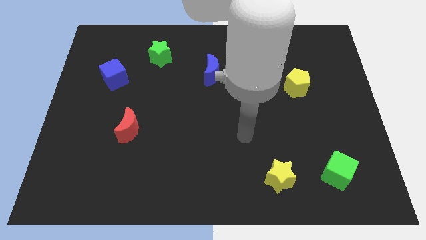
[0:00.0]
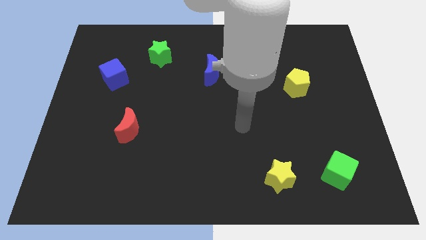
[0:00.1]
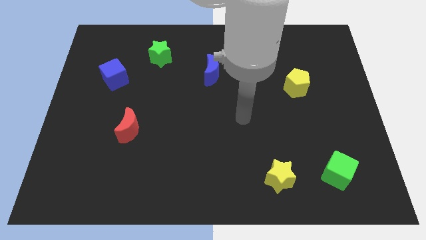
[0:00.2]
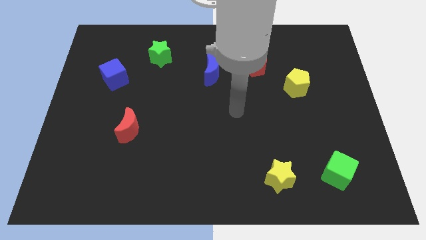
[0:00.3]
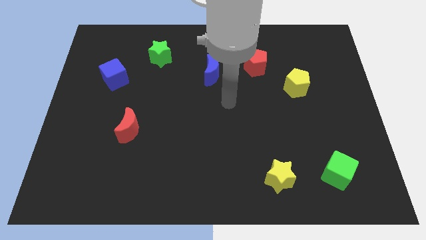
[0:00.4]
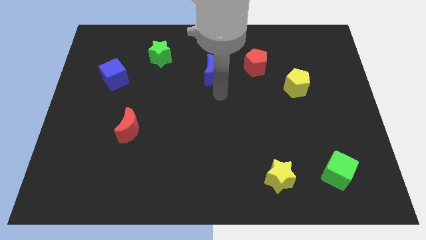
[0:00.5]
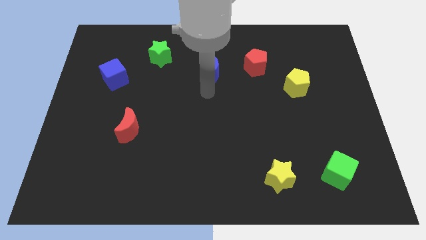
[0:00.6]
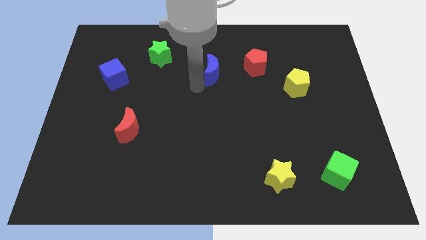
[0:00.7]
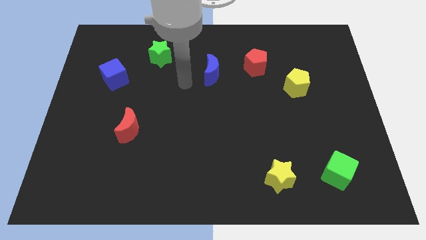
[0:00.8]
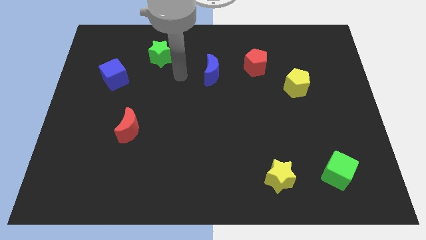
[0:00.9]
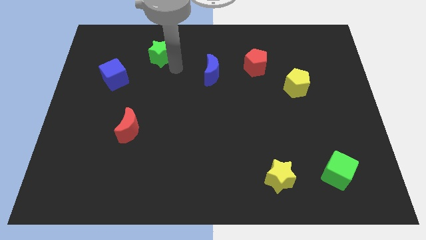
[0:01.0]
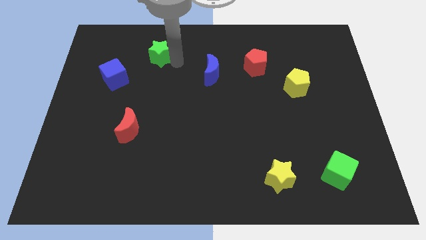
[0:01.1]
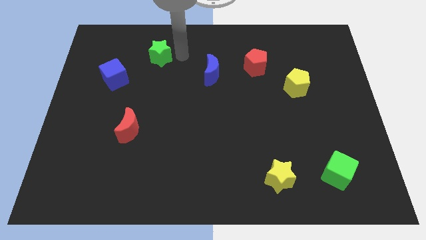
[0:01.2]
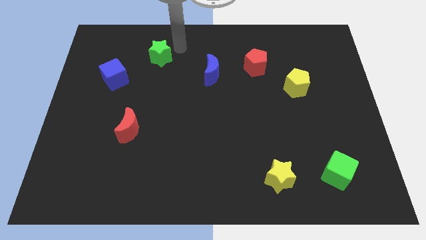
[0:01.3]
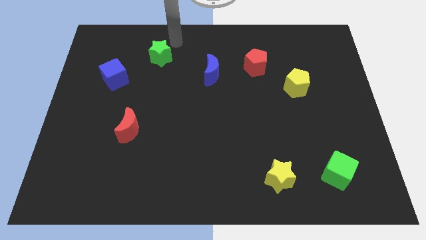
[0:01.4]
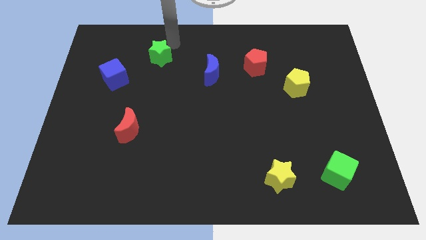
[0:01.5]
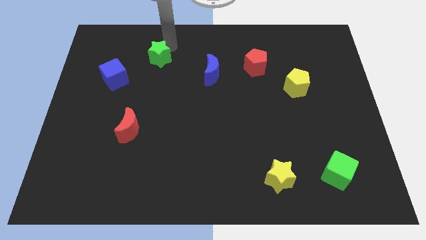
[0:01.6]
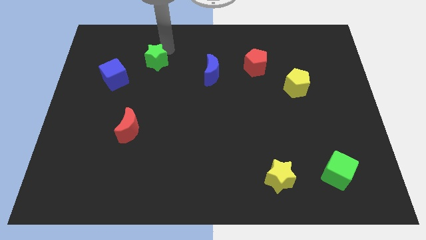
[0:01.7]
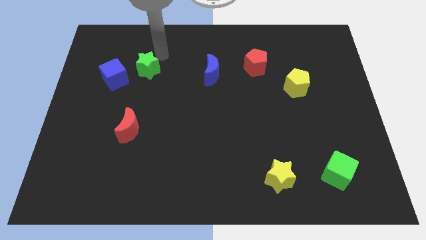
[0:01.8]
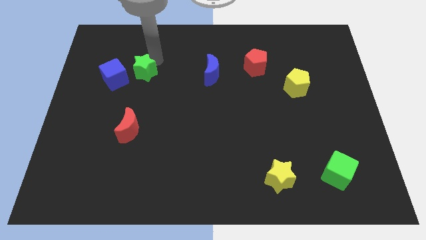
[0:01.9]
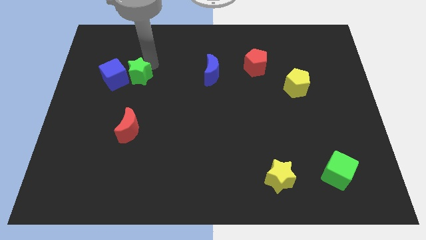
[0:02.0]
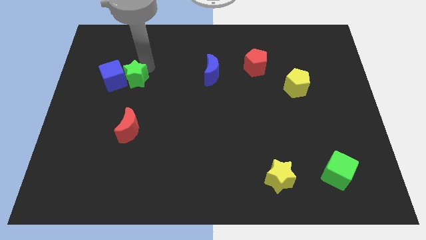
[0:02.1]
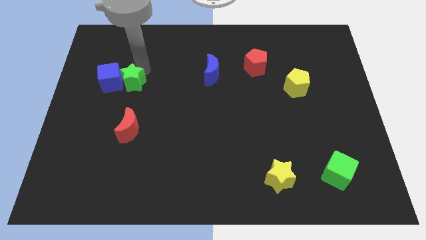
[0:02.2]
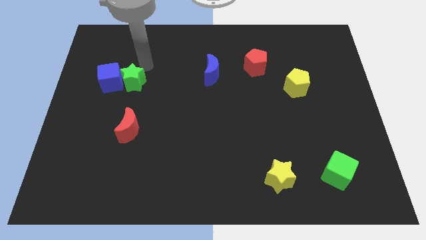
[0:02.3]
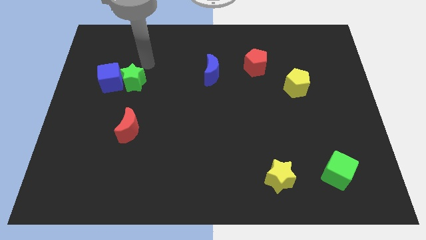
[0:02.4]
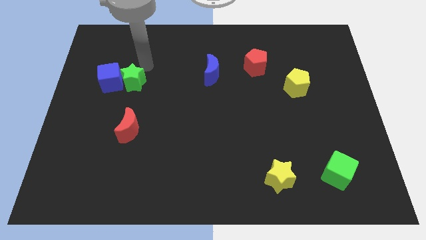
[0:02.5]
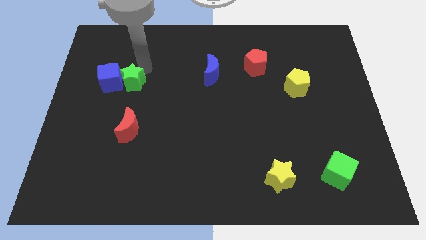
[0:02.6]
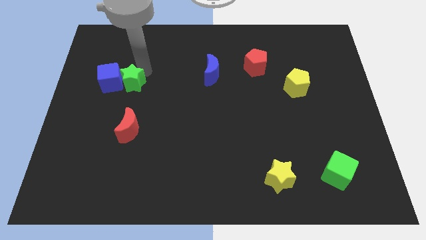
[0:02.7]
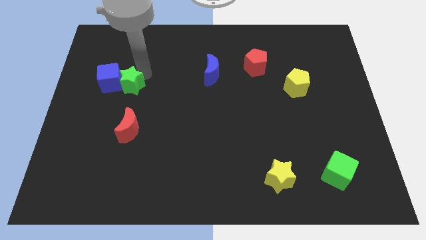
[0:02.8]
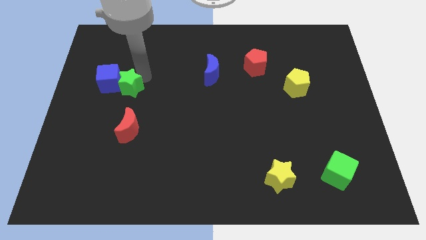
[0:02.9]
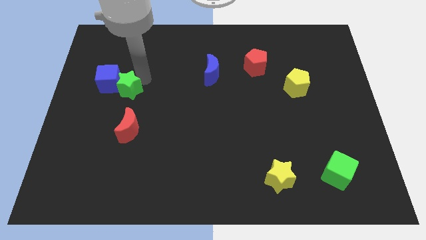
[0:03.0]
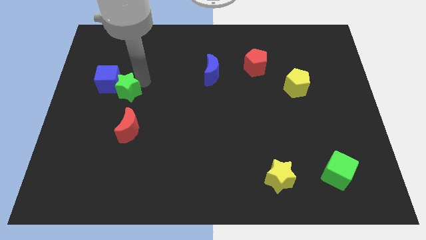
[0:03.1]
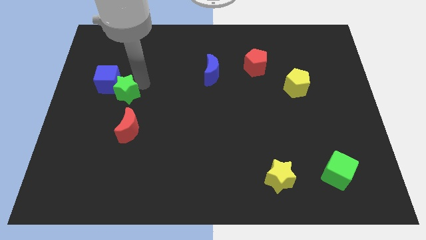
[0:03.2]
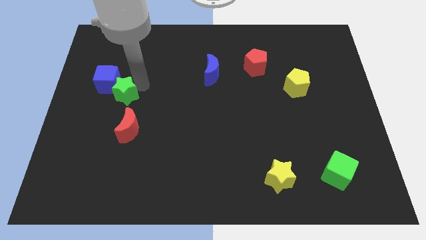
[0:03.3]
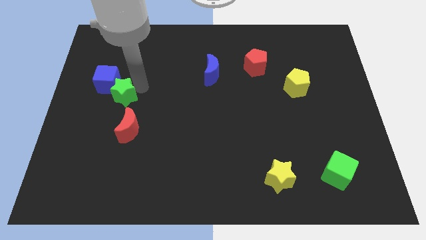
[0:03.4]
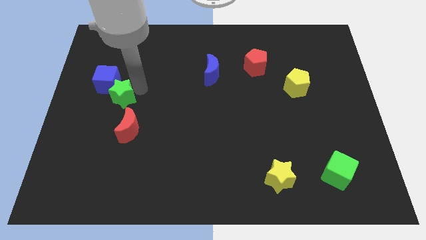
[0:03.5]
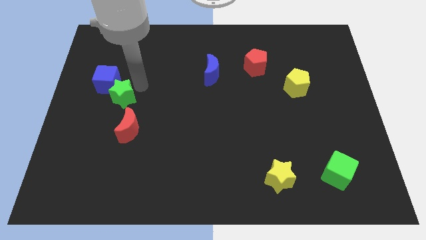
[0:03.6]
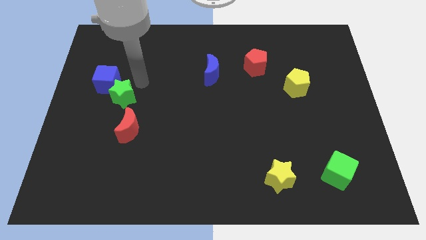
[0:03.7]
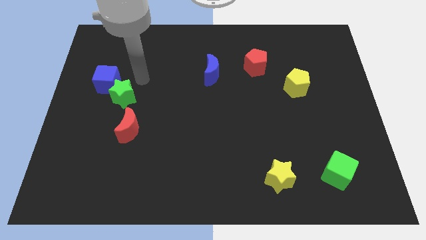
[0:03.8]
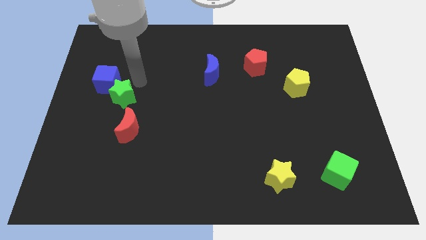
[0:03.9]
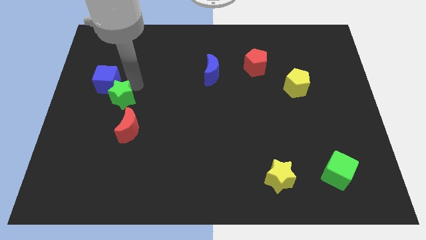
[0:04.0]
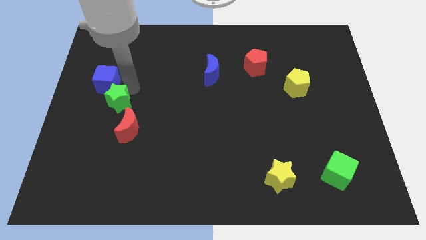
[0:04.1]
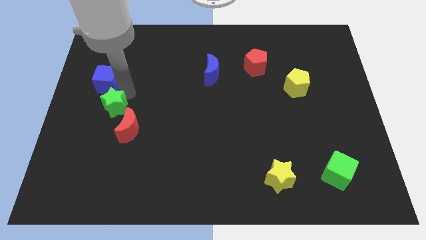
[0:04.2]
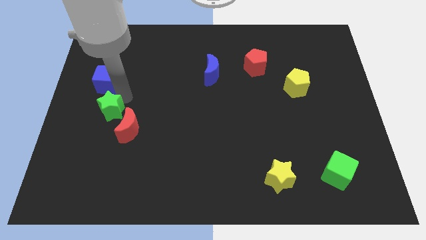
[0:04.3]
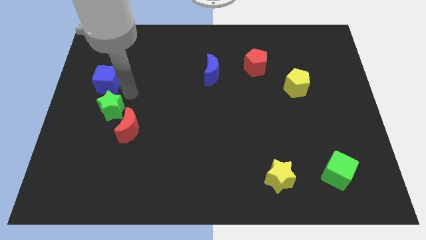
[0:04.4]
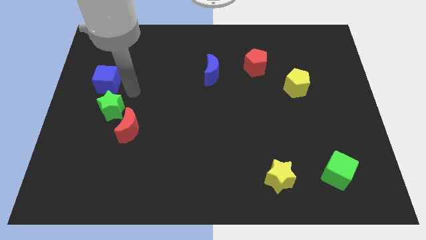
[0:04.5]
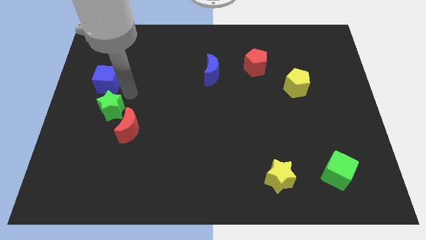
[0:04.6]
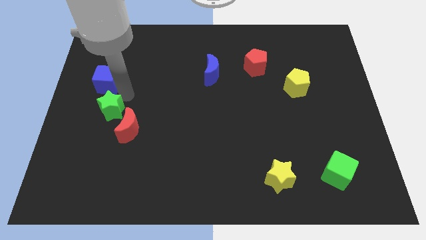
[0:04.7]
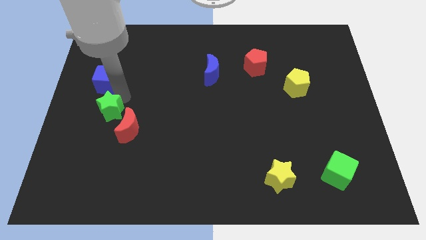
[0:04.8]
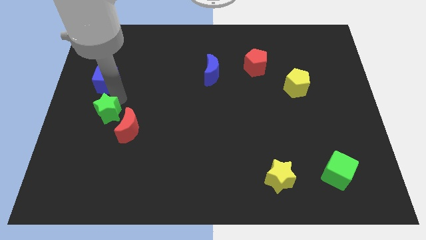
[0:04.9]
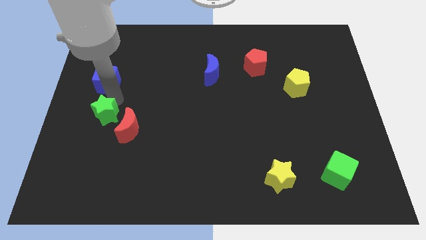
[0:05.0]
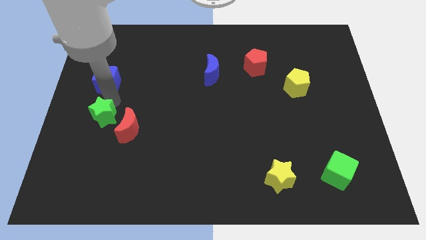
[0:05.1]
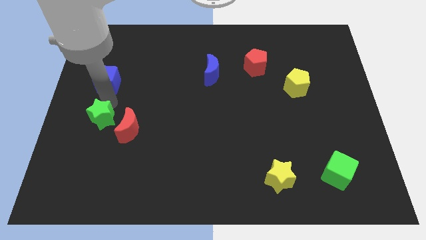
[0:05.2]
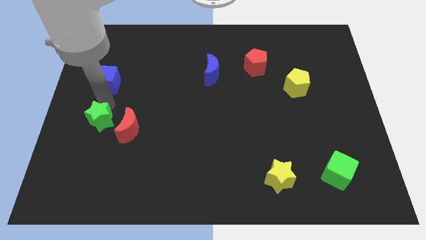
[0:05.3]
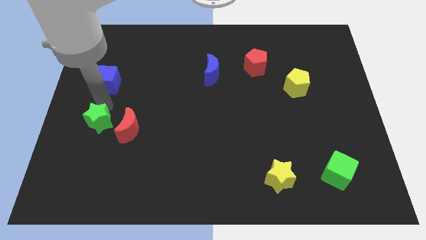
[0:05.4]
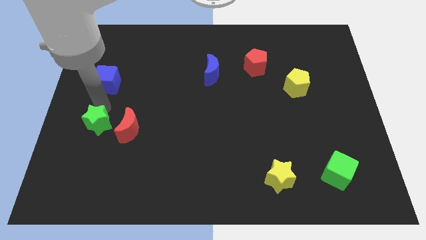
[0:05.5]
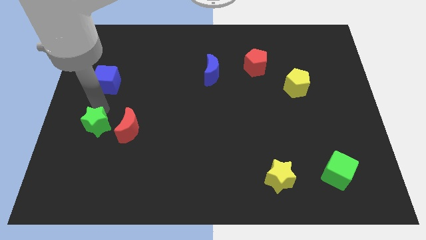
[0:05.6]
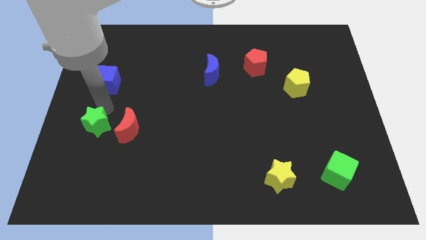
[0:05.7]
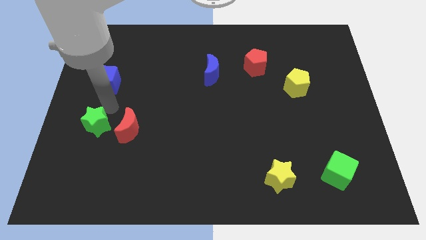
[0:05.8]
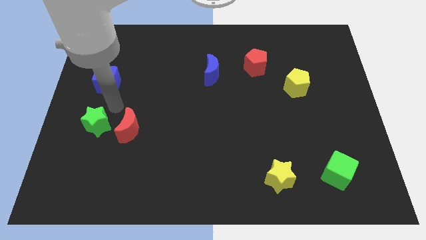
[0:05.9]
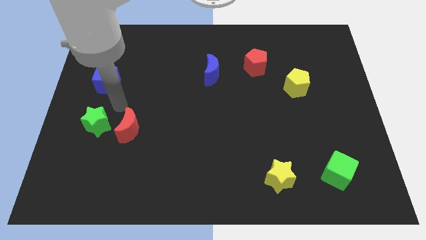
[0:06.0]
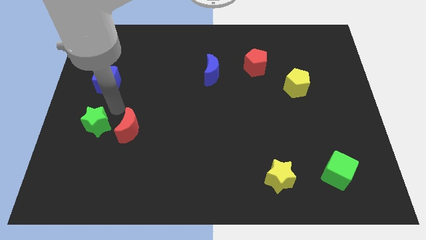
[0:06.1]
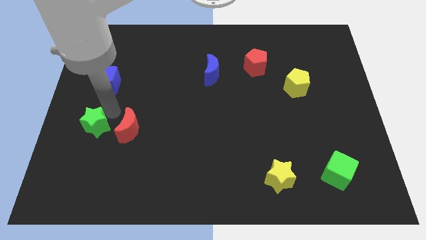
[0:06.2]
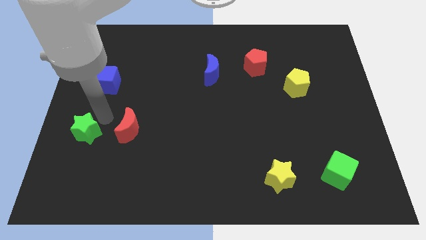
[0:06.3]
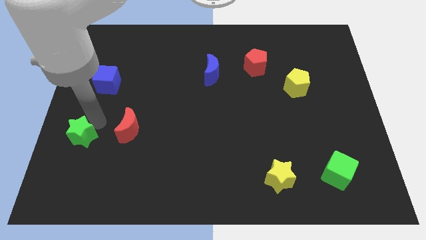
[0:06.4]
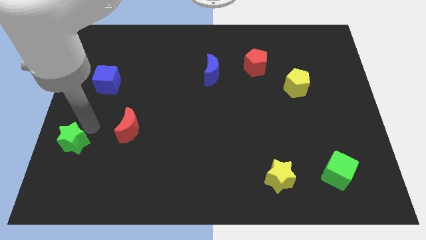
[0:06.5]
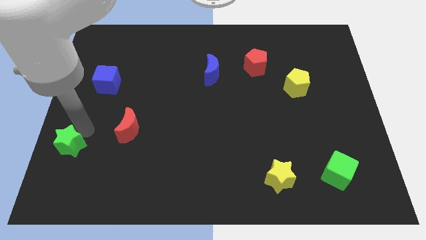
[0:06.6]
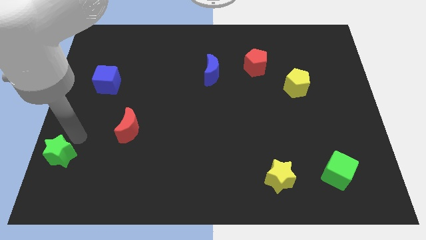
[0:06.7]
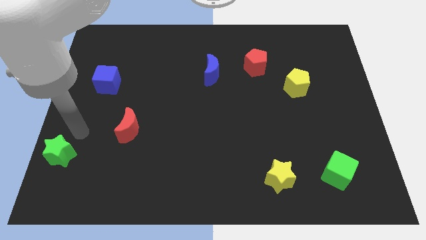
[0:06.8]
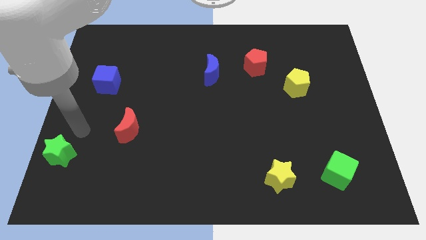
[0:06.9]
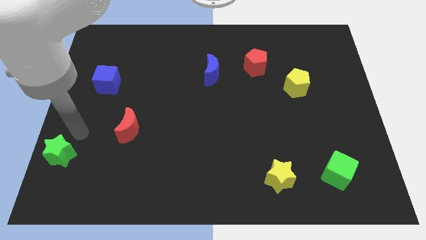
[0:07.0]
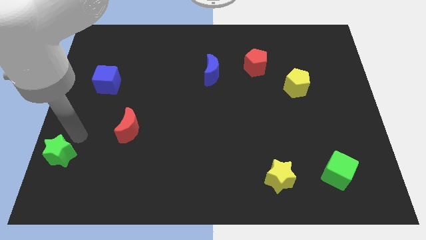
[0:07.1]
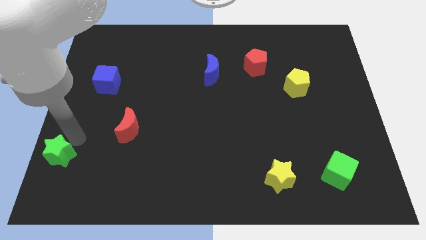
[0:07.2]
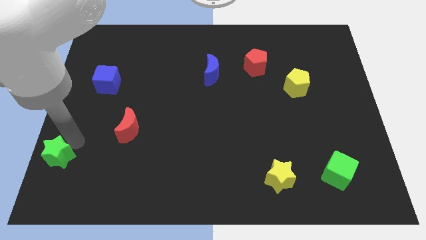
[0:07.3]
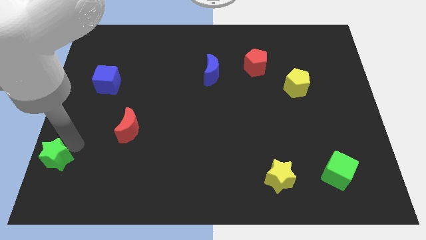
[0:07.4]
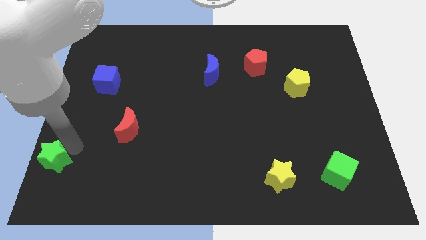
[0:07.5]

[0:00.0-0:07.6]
put the green star to the bottom left of the board
